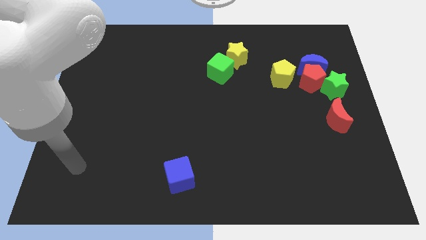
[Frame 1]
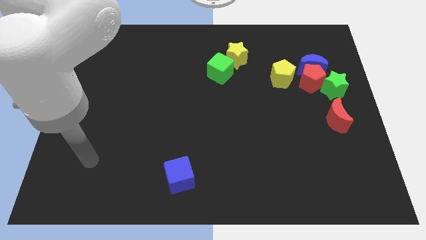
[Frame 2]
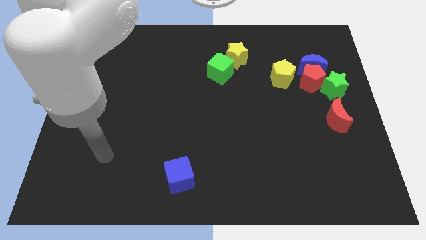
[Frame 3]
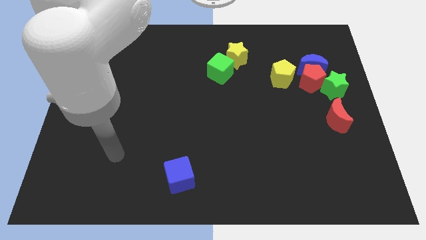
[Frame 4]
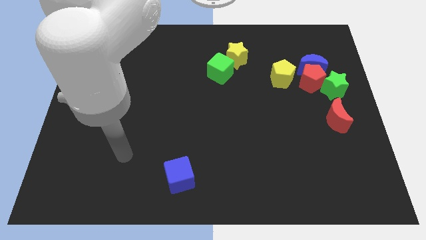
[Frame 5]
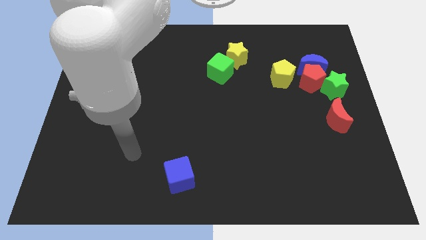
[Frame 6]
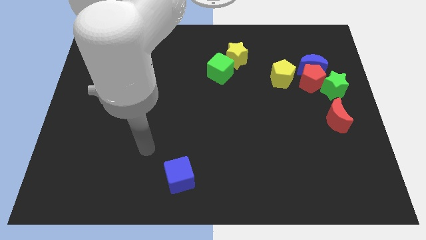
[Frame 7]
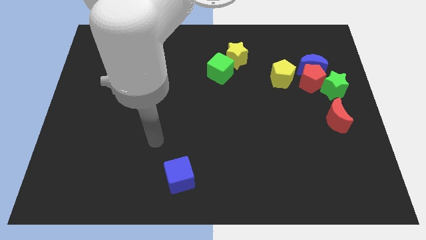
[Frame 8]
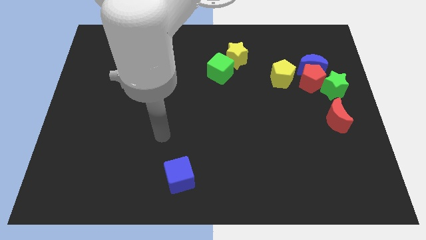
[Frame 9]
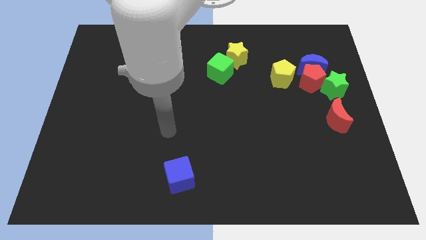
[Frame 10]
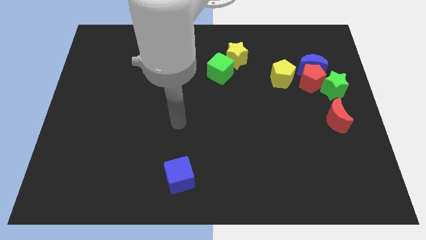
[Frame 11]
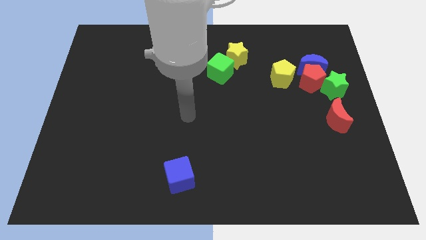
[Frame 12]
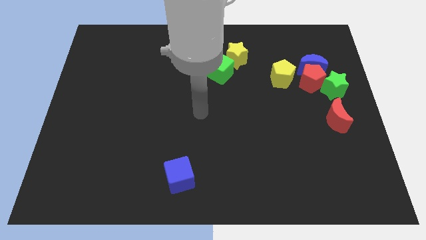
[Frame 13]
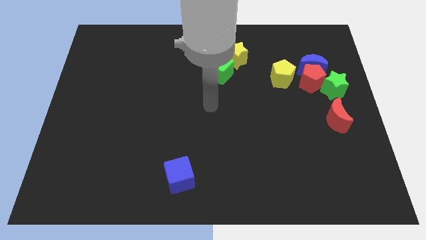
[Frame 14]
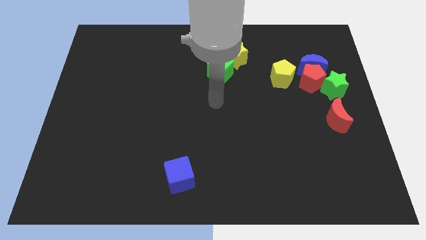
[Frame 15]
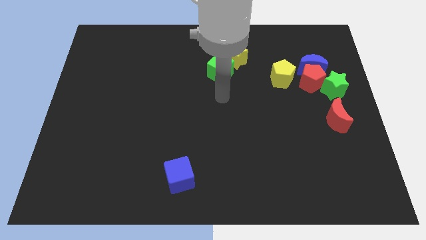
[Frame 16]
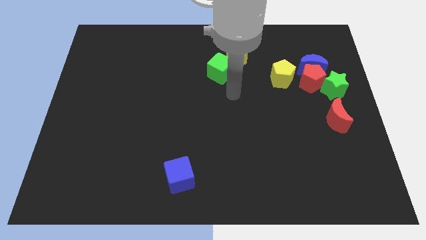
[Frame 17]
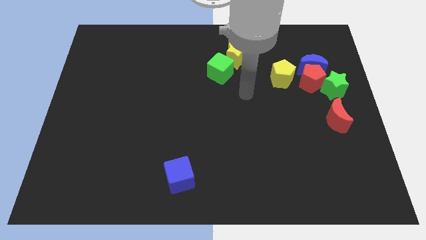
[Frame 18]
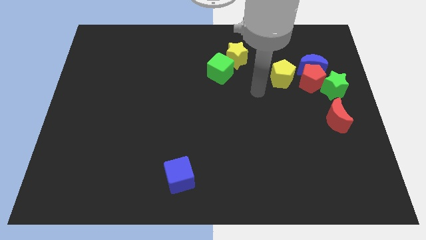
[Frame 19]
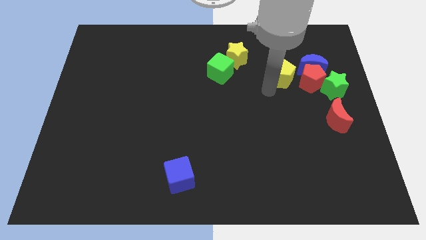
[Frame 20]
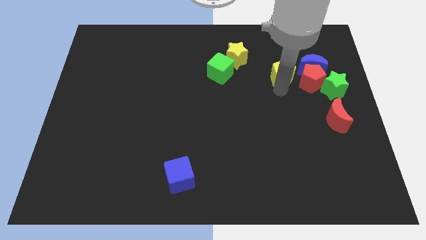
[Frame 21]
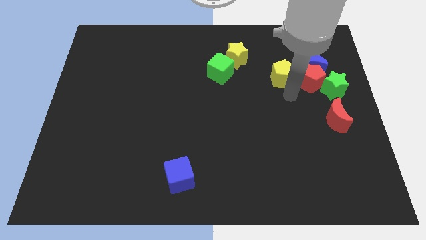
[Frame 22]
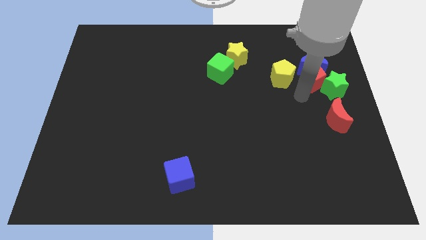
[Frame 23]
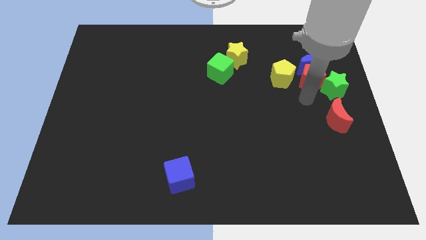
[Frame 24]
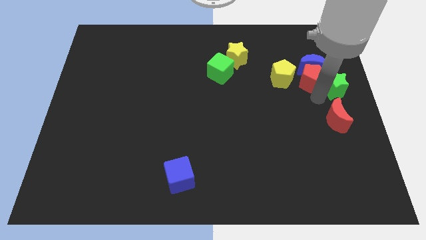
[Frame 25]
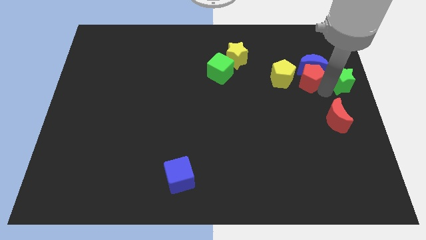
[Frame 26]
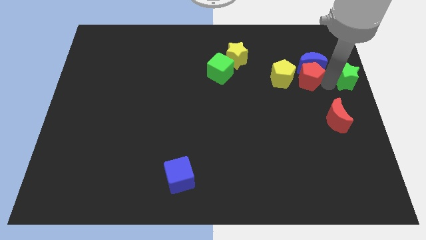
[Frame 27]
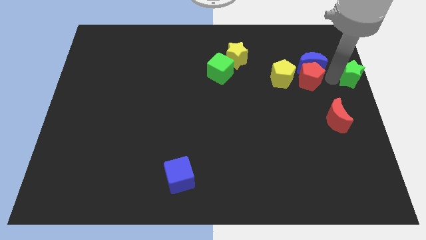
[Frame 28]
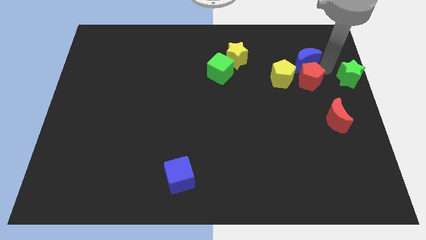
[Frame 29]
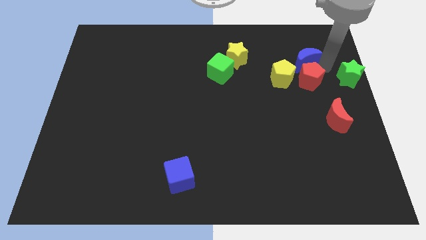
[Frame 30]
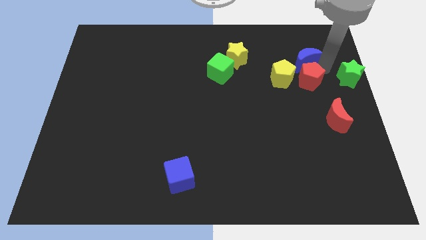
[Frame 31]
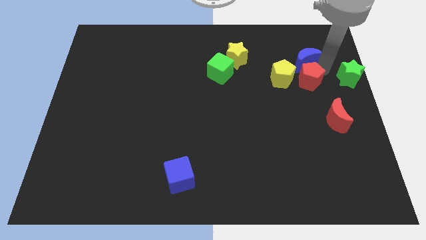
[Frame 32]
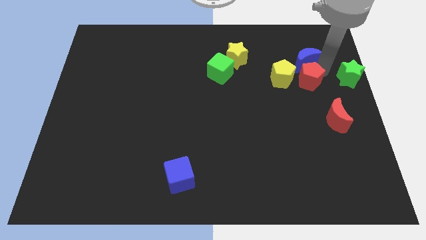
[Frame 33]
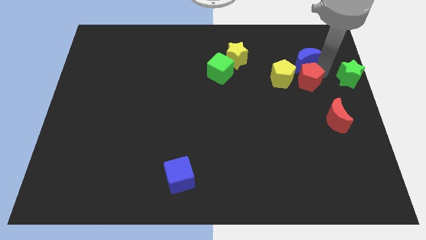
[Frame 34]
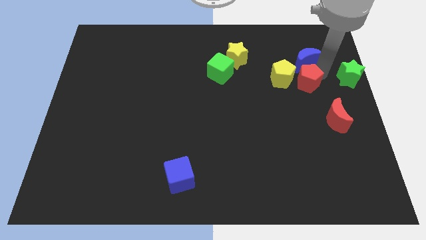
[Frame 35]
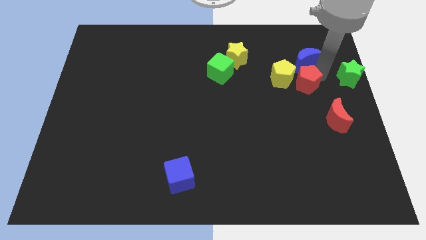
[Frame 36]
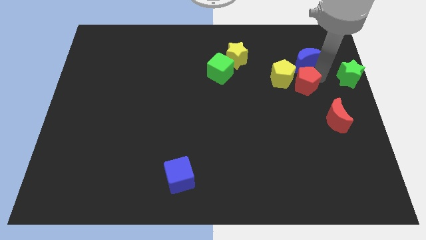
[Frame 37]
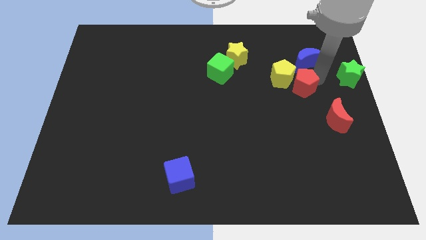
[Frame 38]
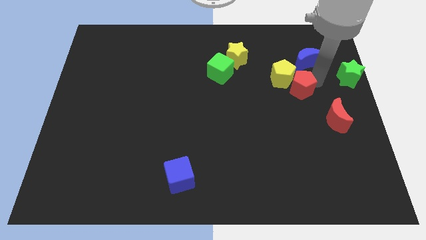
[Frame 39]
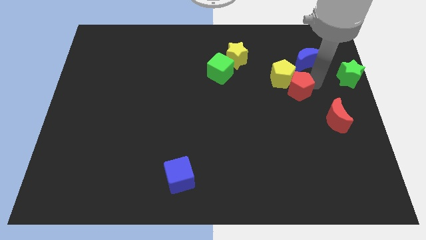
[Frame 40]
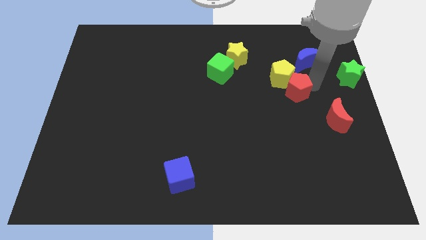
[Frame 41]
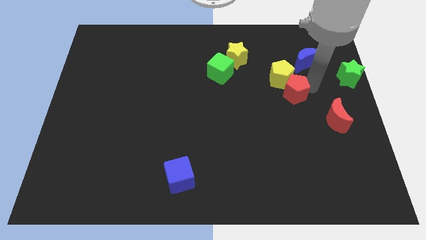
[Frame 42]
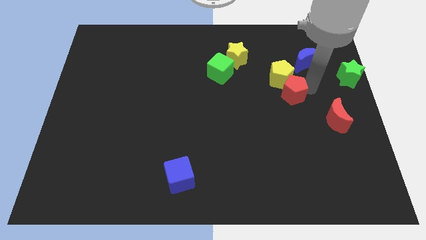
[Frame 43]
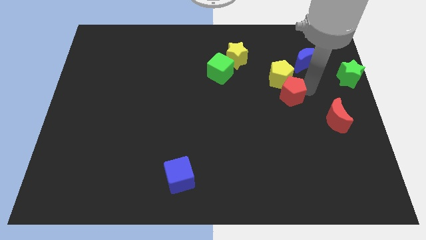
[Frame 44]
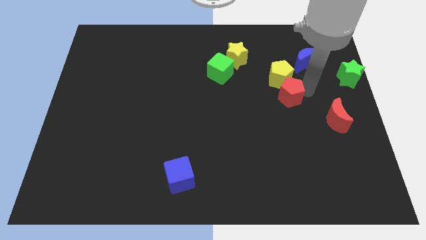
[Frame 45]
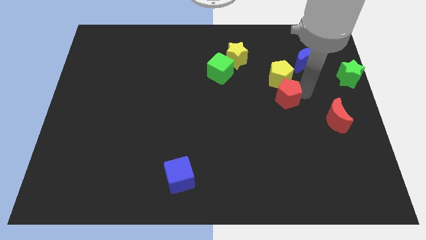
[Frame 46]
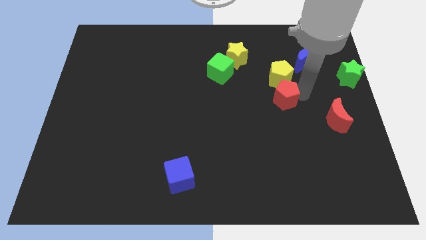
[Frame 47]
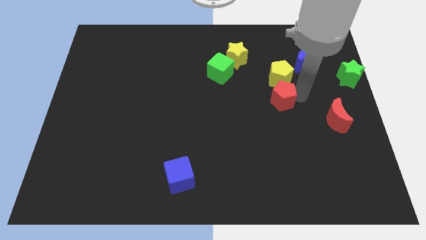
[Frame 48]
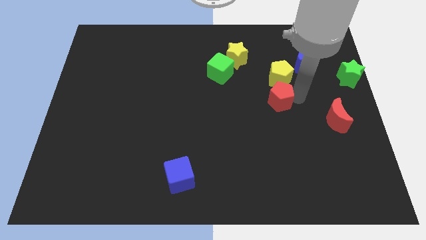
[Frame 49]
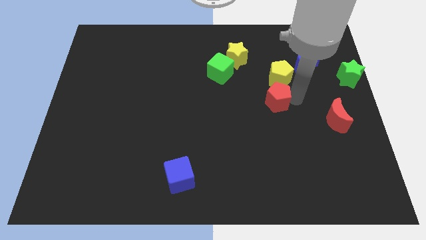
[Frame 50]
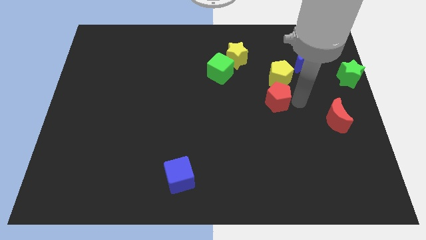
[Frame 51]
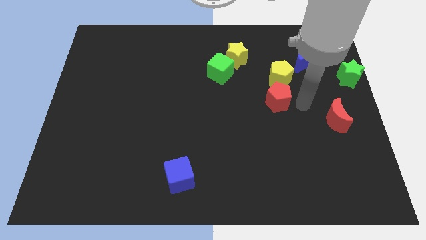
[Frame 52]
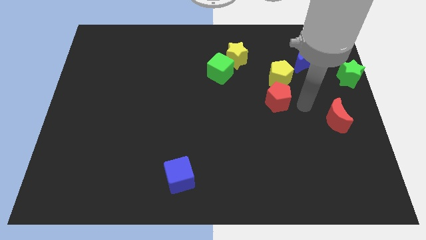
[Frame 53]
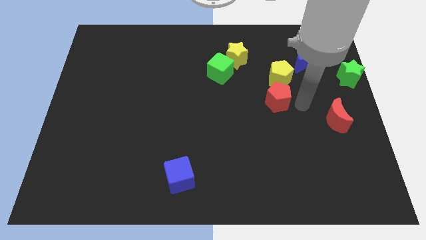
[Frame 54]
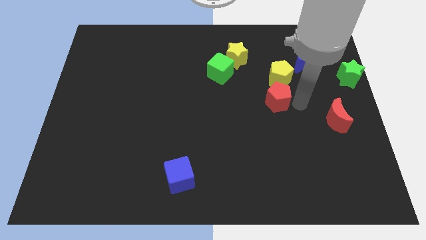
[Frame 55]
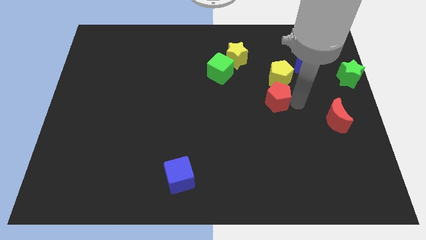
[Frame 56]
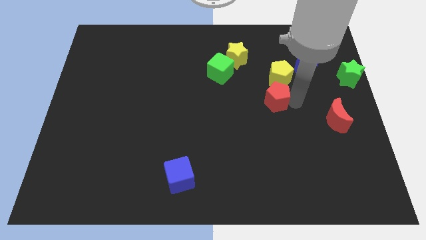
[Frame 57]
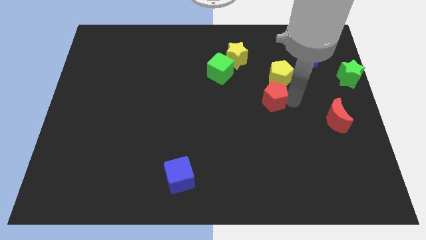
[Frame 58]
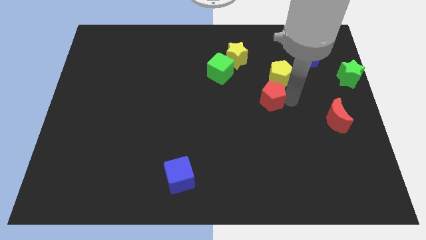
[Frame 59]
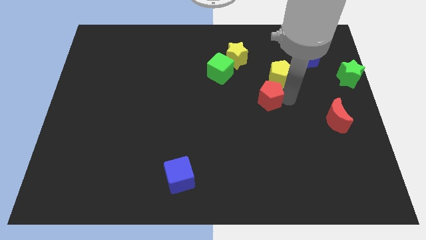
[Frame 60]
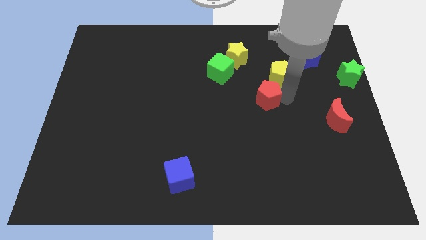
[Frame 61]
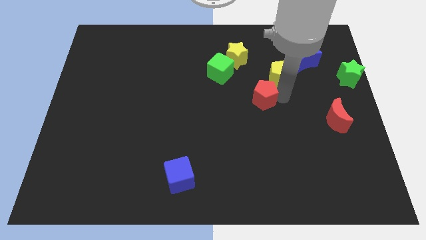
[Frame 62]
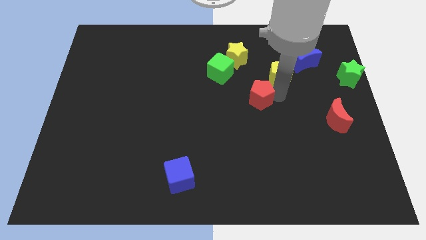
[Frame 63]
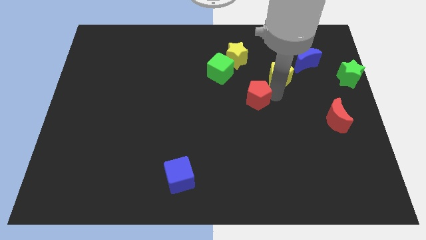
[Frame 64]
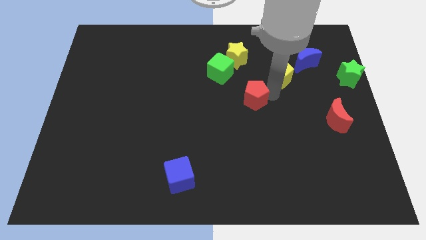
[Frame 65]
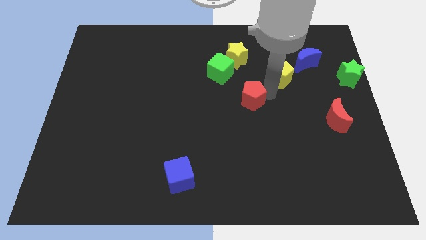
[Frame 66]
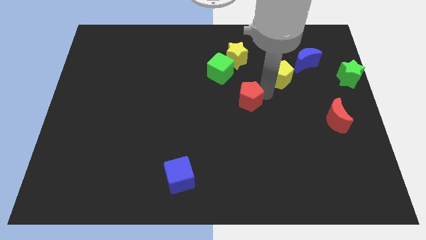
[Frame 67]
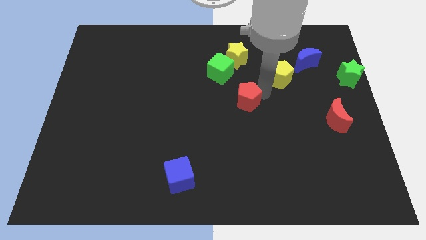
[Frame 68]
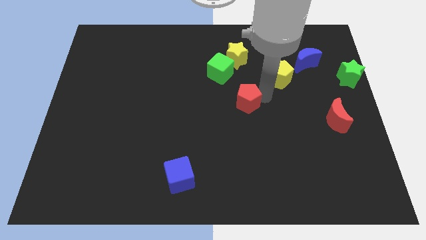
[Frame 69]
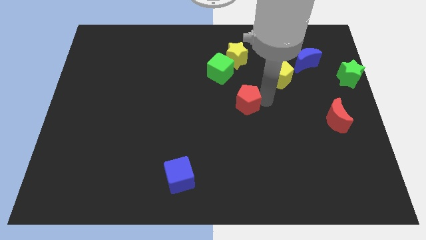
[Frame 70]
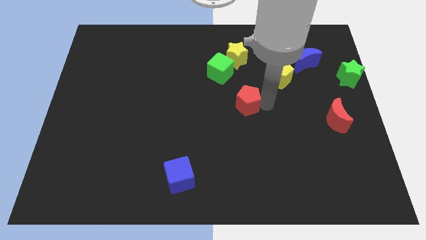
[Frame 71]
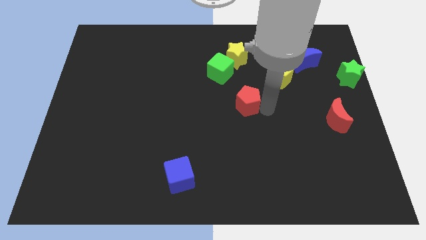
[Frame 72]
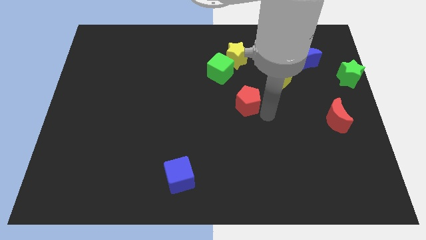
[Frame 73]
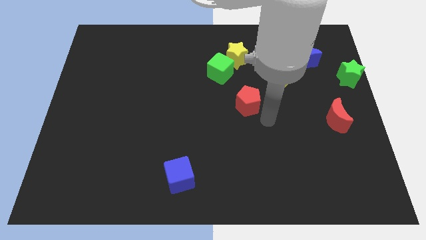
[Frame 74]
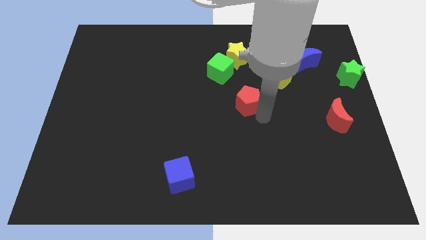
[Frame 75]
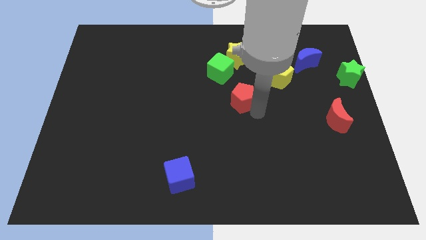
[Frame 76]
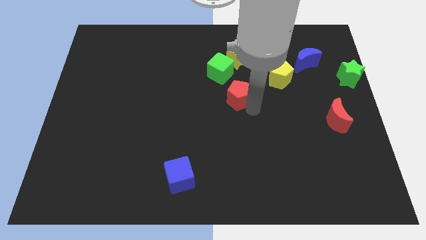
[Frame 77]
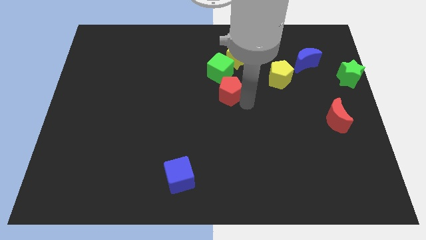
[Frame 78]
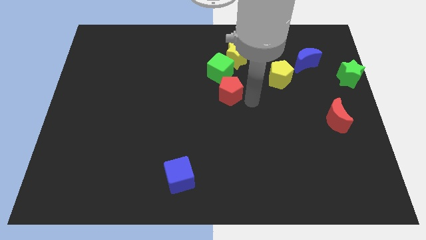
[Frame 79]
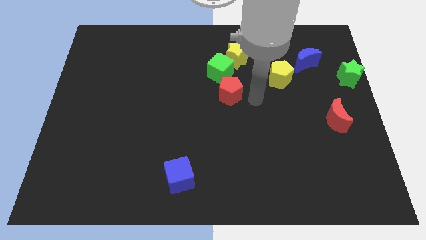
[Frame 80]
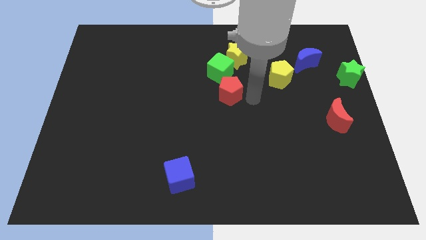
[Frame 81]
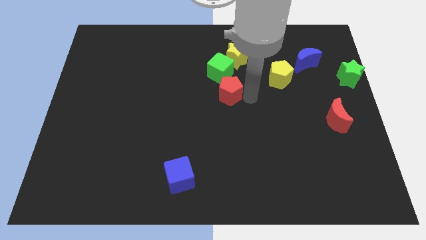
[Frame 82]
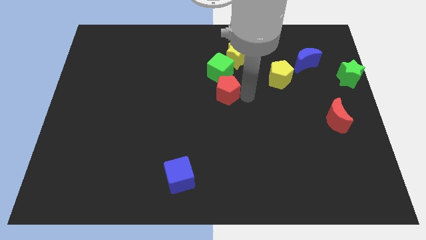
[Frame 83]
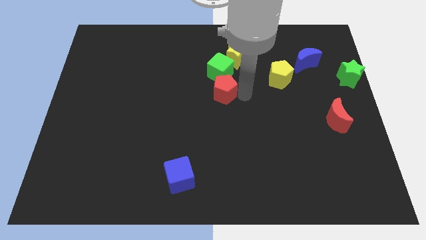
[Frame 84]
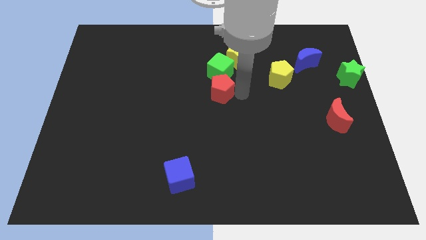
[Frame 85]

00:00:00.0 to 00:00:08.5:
put the red pentagon to the bottom left of the green cube
